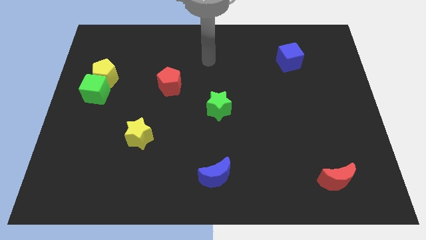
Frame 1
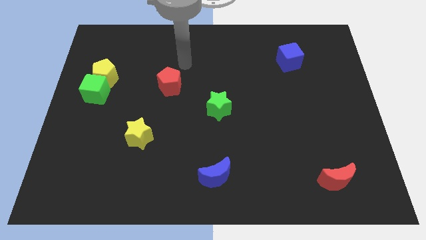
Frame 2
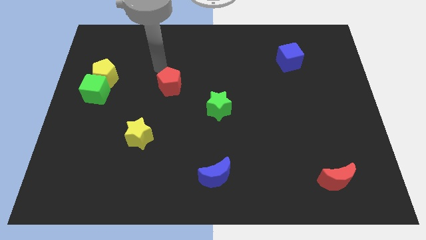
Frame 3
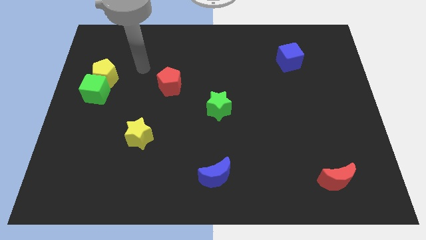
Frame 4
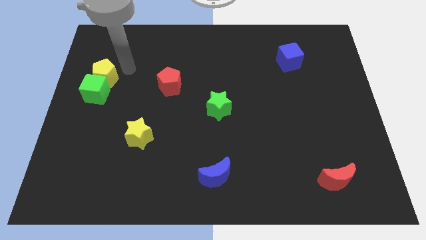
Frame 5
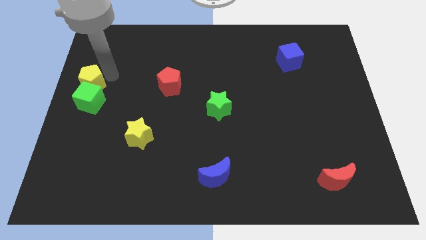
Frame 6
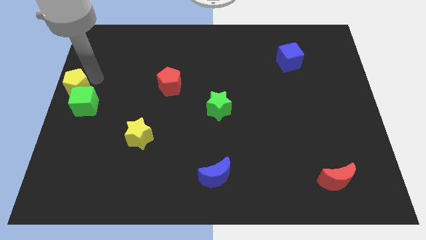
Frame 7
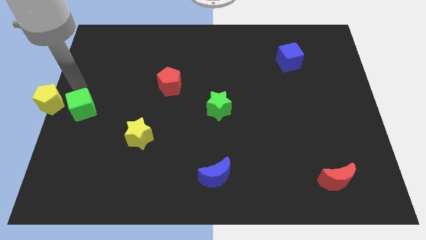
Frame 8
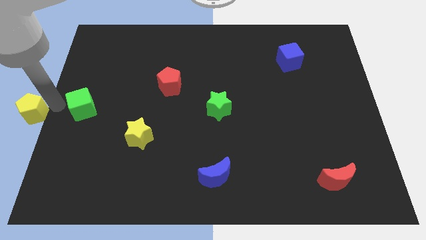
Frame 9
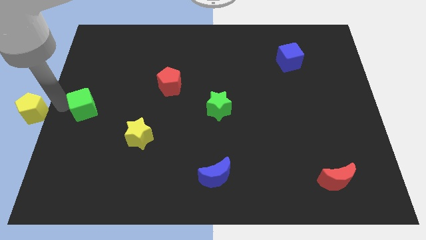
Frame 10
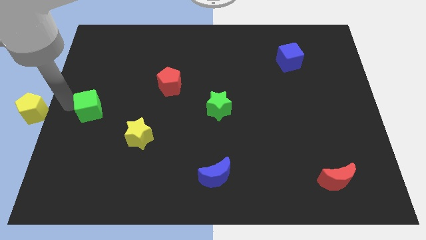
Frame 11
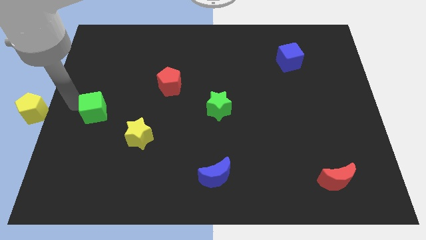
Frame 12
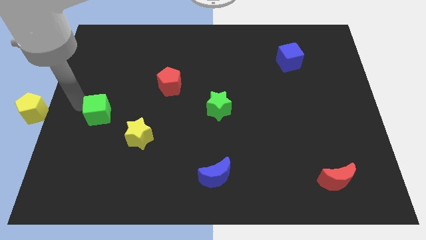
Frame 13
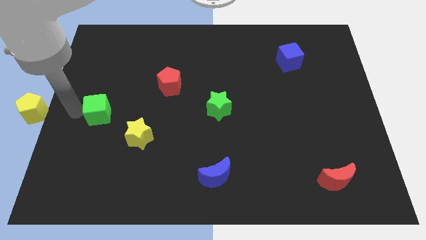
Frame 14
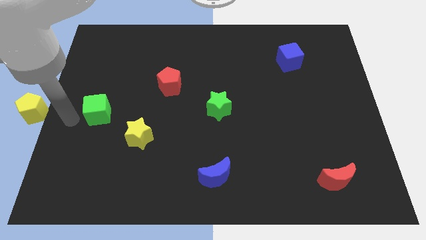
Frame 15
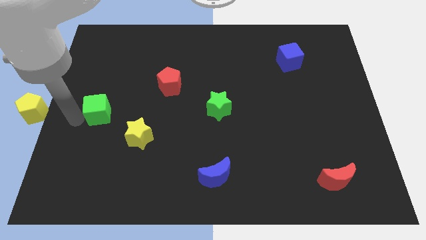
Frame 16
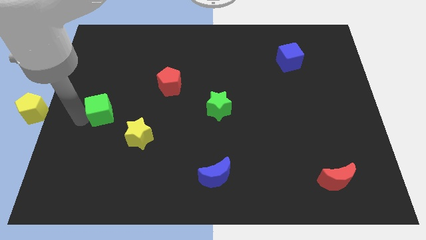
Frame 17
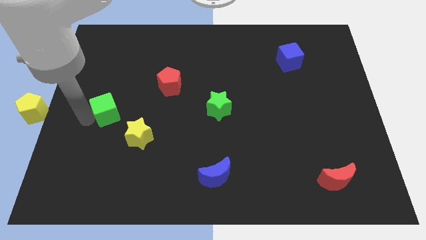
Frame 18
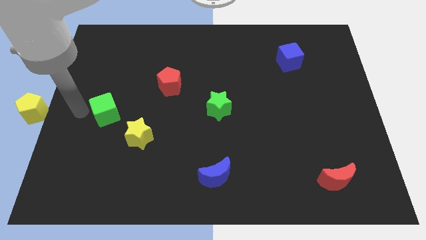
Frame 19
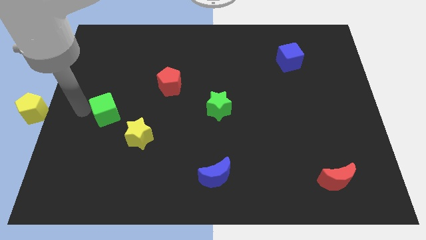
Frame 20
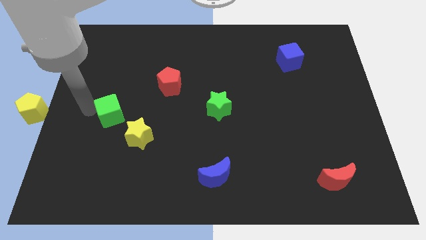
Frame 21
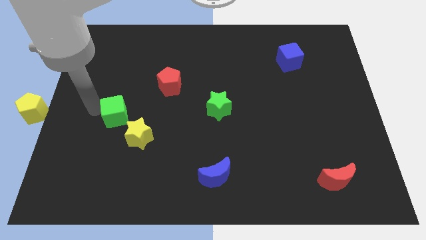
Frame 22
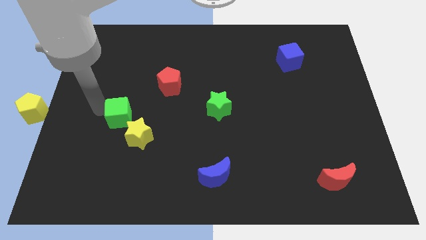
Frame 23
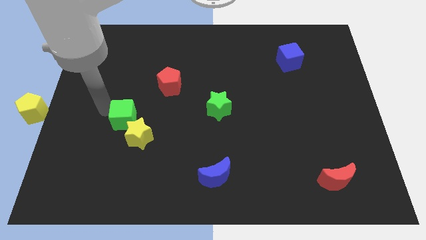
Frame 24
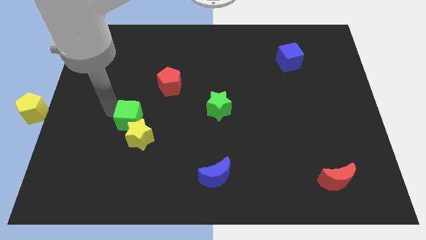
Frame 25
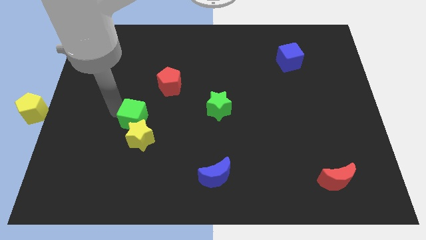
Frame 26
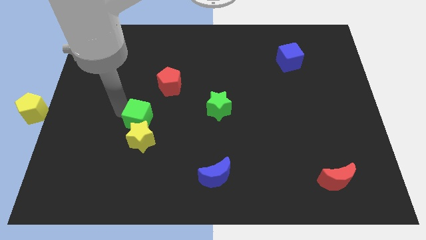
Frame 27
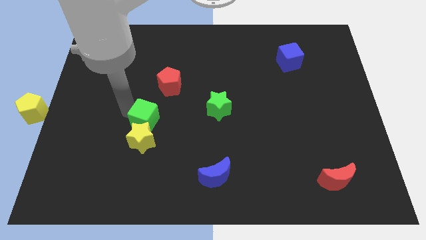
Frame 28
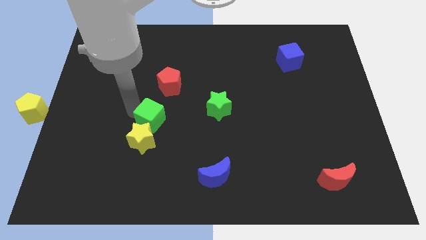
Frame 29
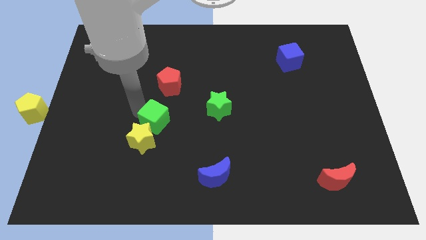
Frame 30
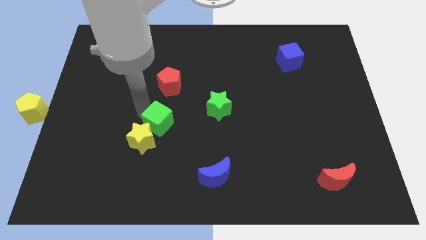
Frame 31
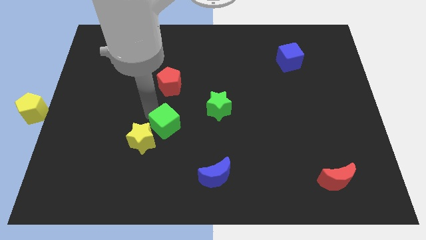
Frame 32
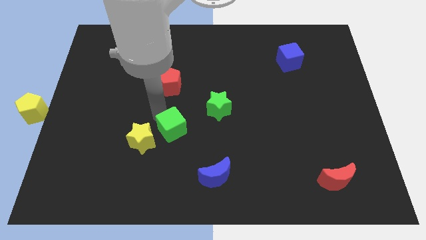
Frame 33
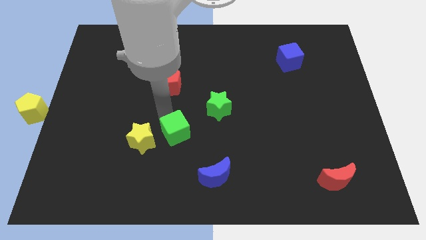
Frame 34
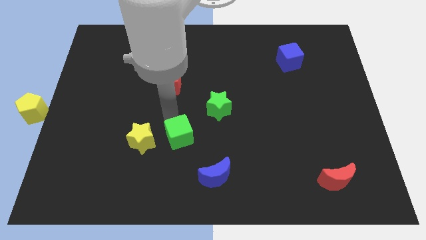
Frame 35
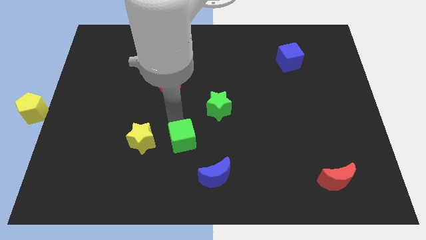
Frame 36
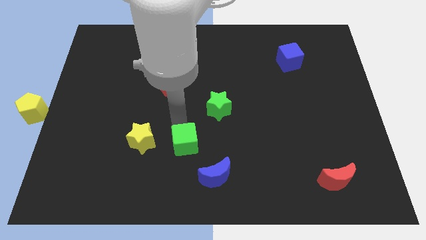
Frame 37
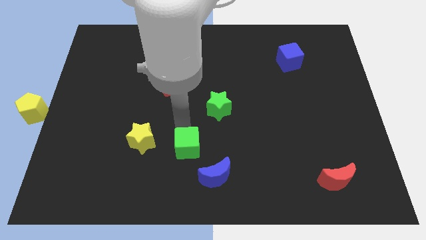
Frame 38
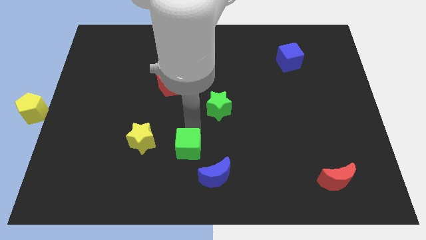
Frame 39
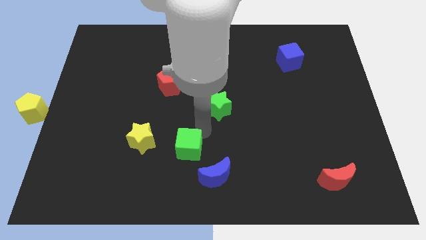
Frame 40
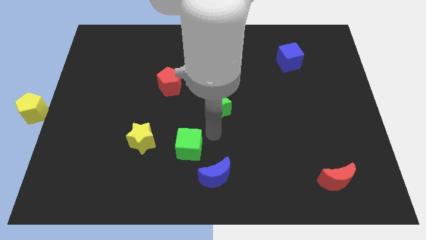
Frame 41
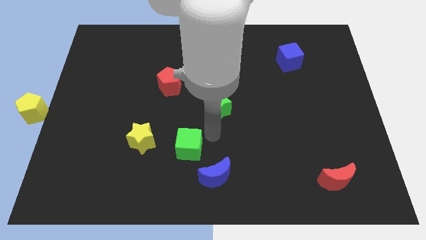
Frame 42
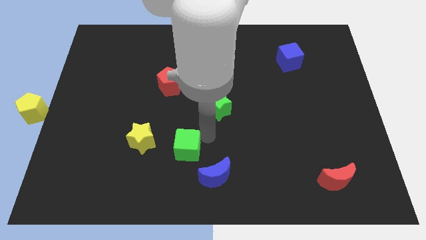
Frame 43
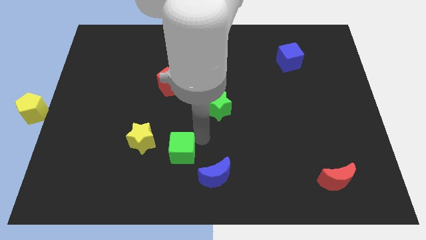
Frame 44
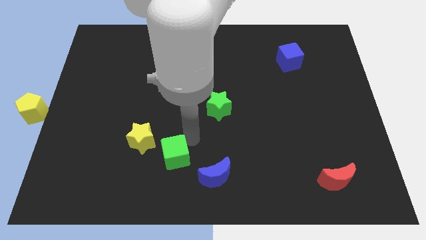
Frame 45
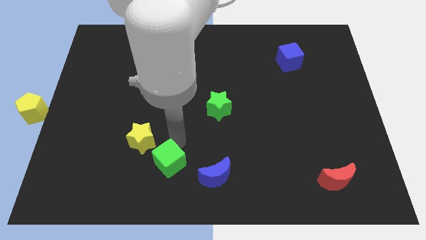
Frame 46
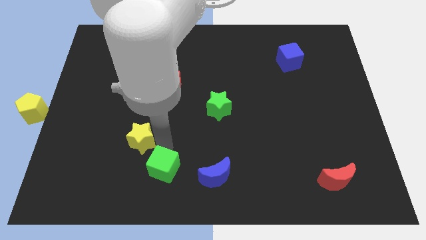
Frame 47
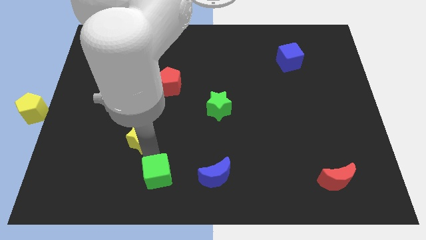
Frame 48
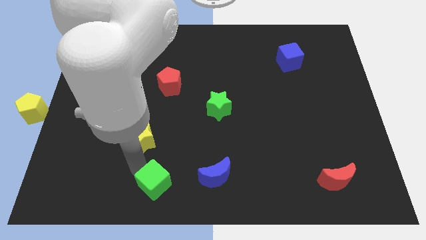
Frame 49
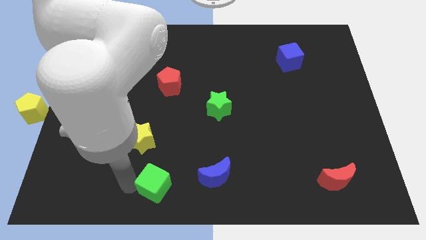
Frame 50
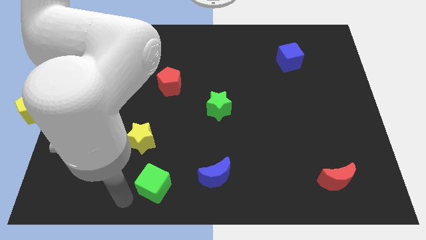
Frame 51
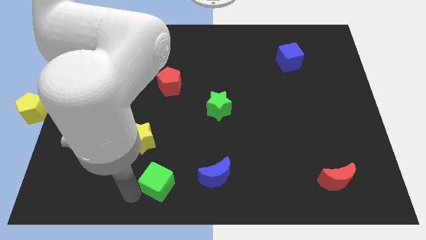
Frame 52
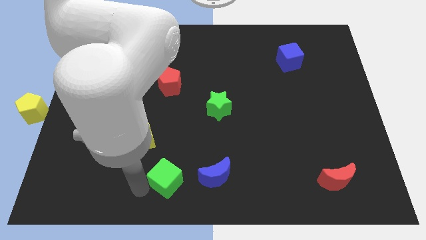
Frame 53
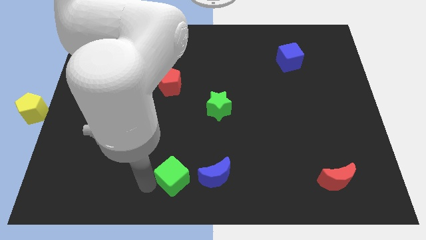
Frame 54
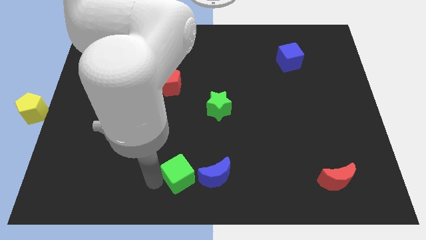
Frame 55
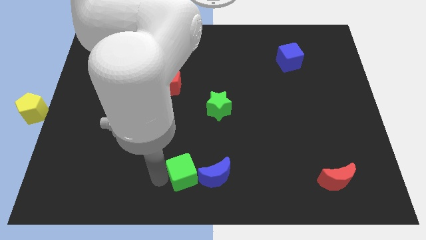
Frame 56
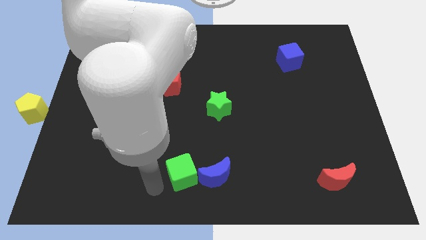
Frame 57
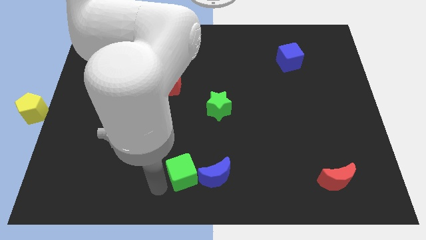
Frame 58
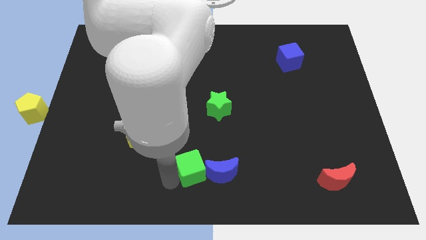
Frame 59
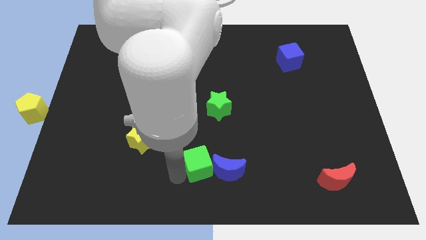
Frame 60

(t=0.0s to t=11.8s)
push the green cube close to the blue moon

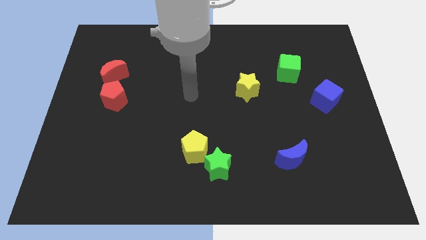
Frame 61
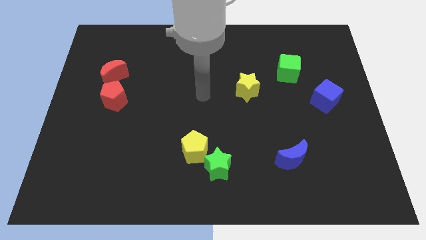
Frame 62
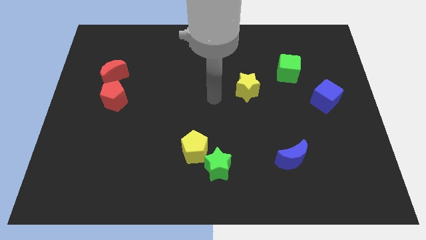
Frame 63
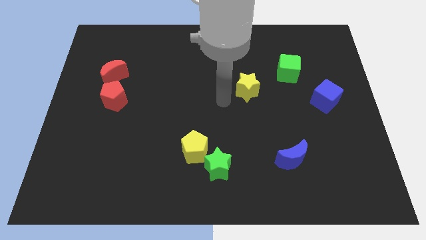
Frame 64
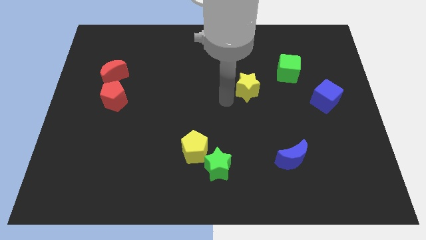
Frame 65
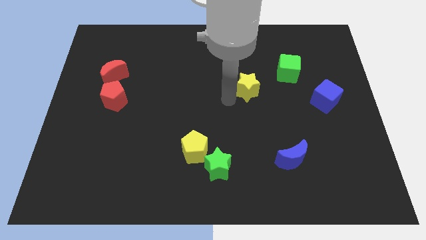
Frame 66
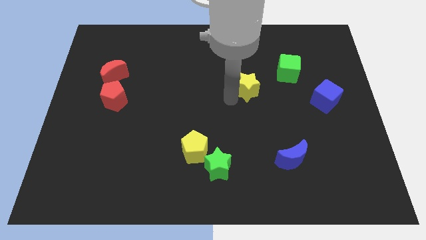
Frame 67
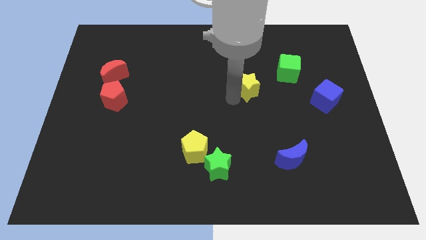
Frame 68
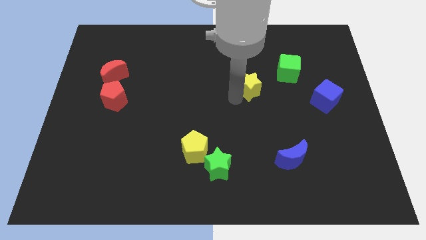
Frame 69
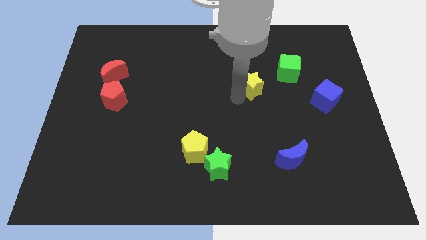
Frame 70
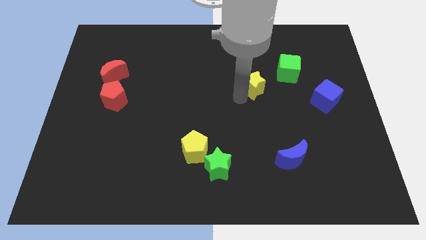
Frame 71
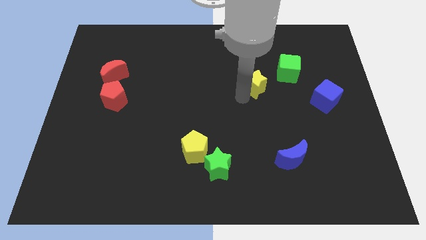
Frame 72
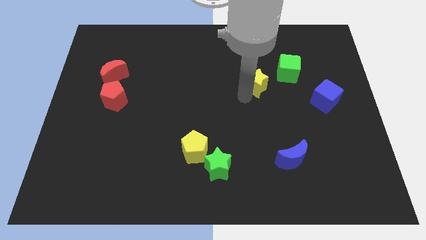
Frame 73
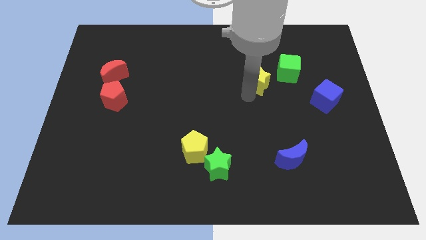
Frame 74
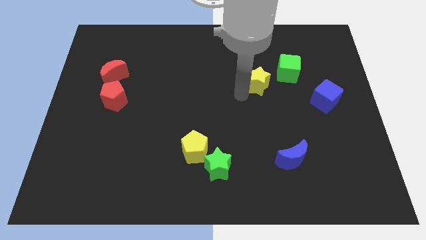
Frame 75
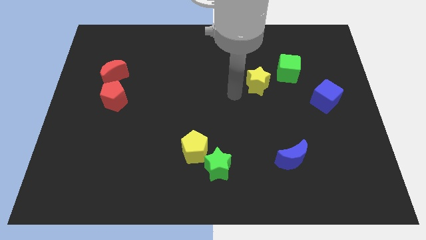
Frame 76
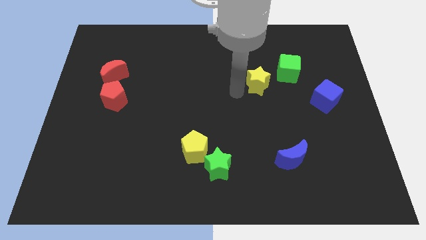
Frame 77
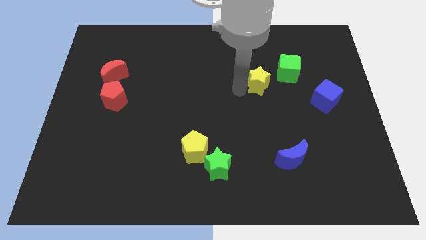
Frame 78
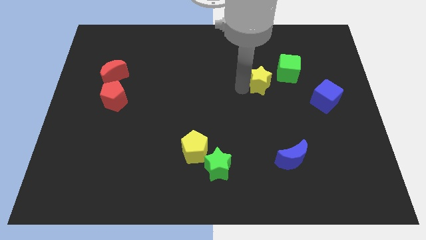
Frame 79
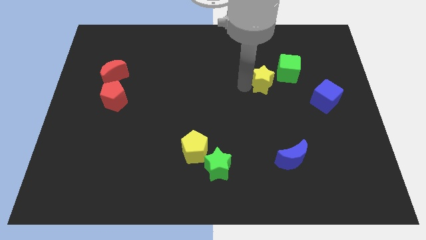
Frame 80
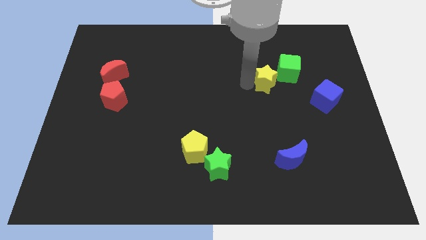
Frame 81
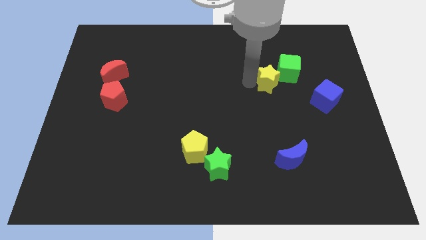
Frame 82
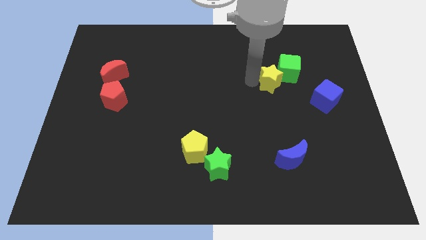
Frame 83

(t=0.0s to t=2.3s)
move the yellow star close to the green cube
